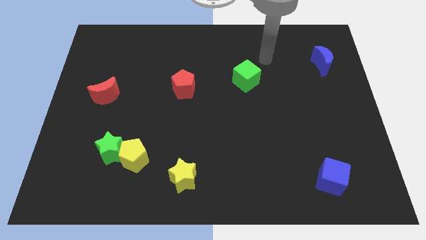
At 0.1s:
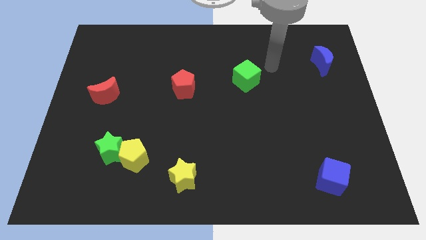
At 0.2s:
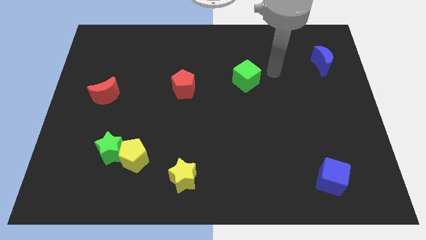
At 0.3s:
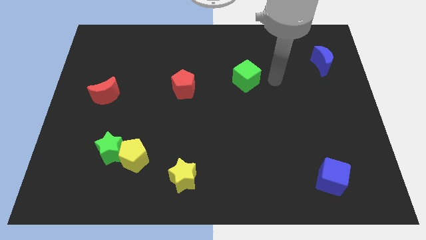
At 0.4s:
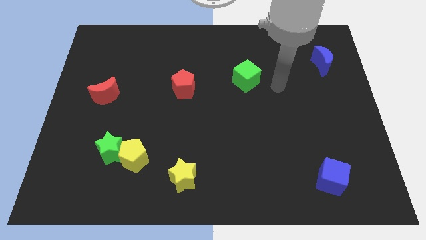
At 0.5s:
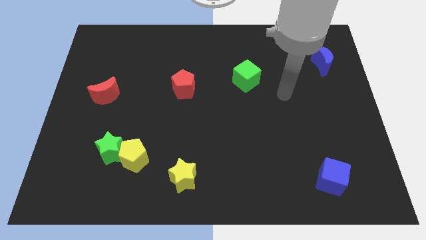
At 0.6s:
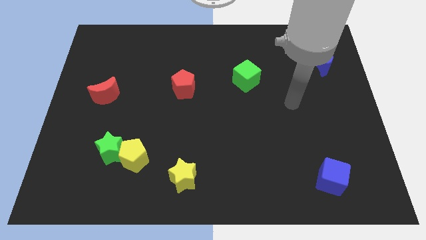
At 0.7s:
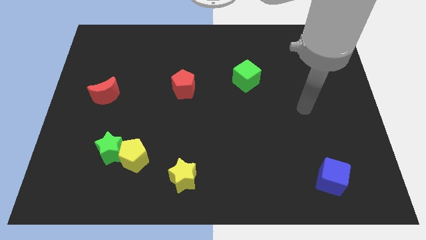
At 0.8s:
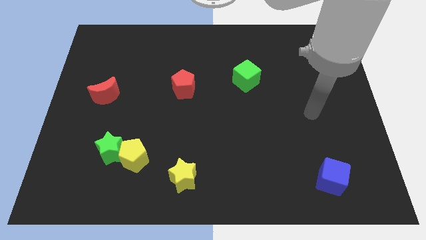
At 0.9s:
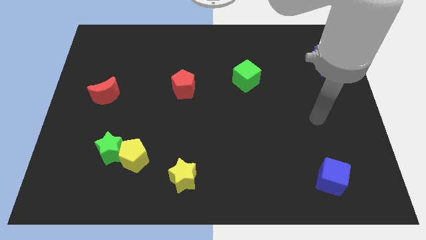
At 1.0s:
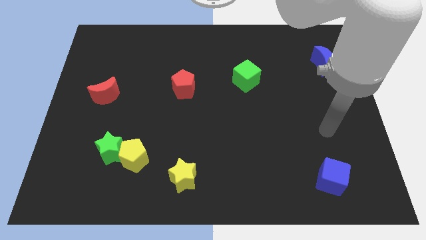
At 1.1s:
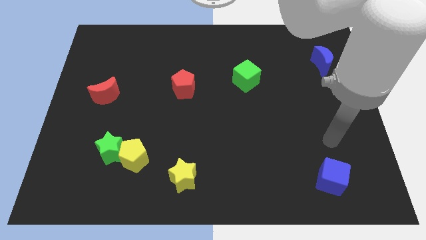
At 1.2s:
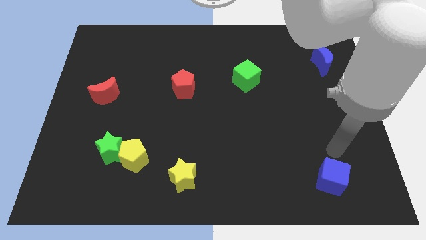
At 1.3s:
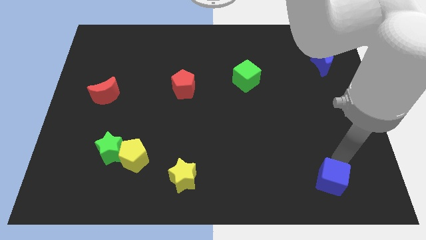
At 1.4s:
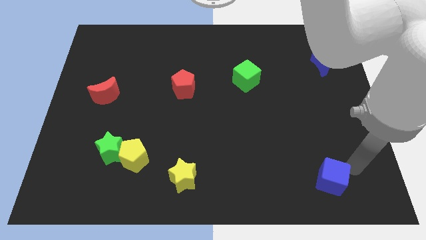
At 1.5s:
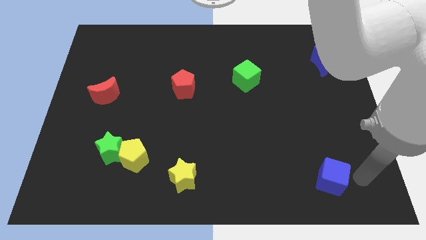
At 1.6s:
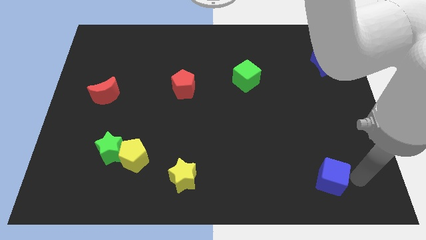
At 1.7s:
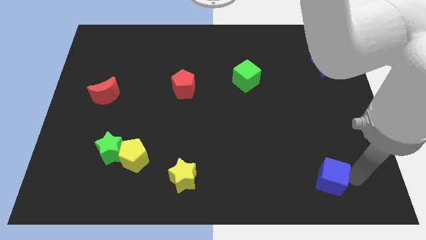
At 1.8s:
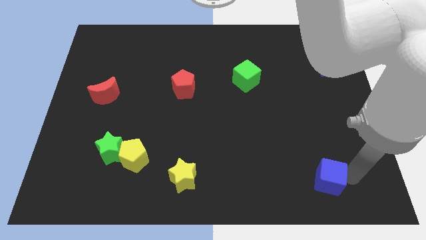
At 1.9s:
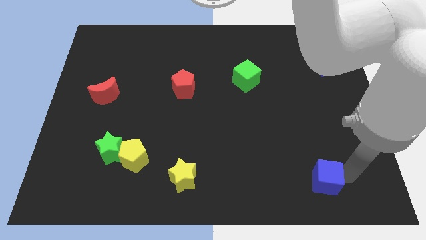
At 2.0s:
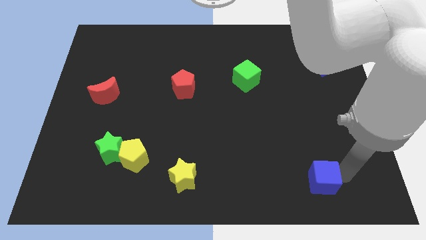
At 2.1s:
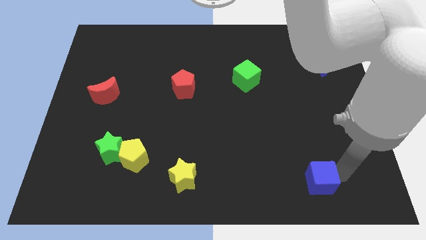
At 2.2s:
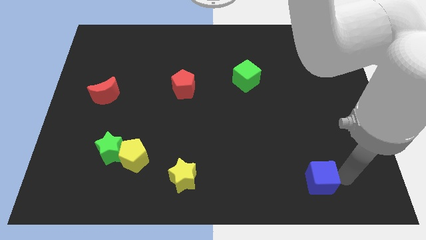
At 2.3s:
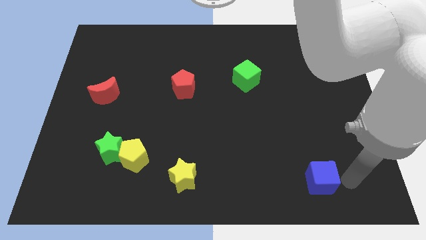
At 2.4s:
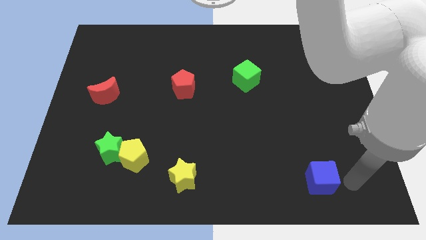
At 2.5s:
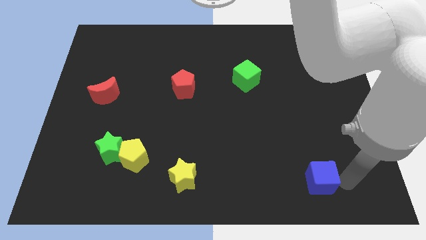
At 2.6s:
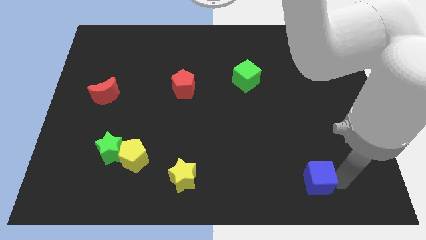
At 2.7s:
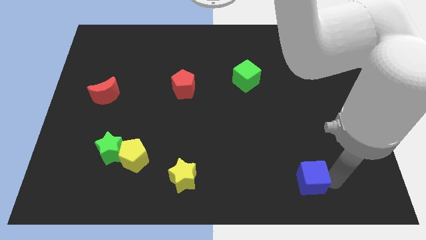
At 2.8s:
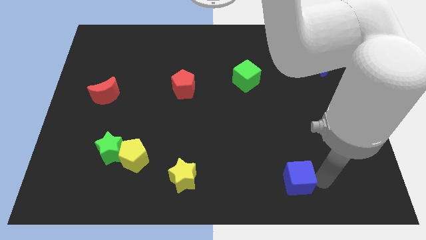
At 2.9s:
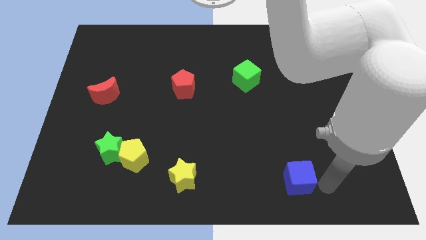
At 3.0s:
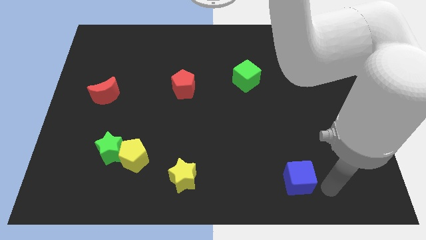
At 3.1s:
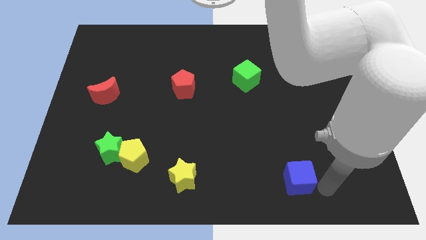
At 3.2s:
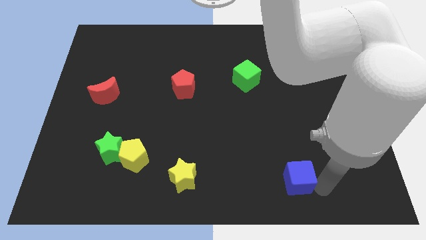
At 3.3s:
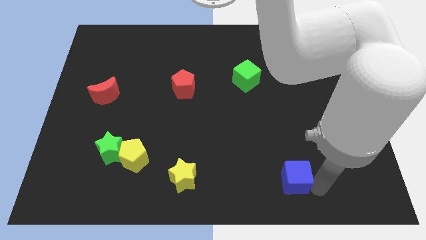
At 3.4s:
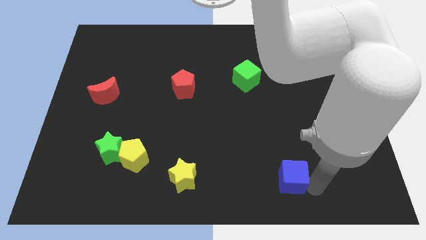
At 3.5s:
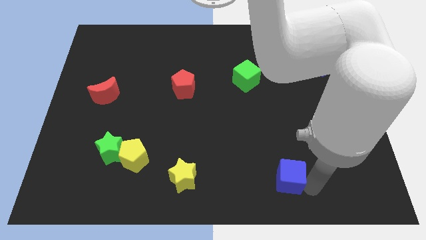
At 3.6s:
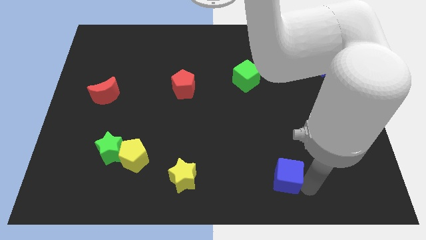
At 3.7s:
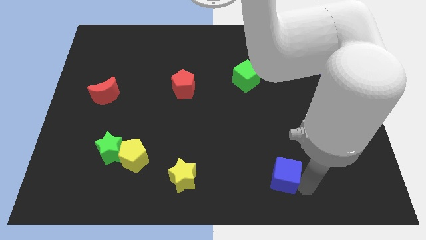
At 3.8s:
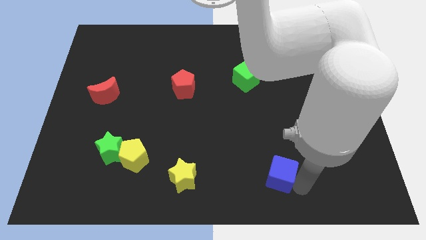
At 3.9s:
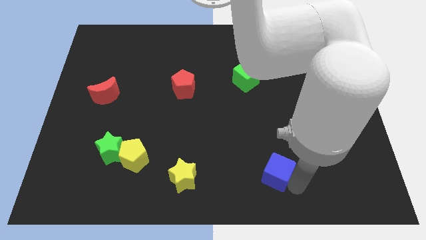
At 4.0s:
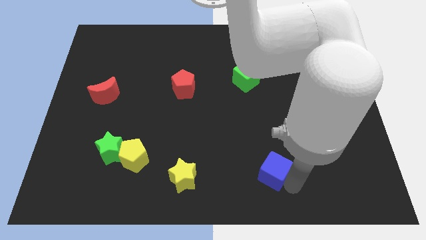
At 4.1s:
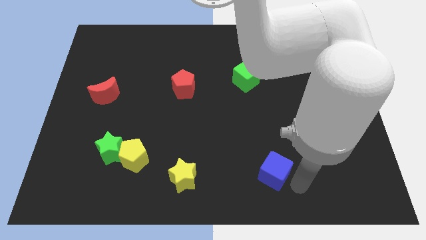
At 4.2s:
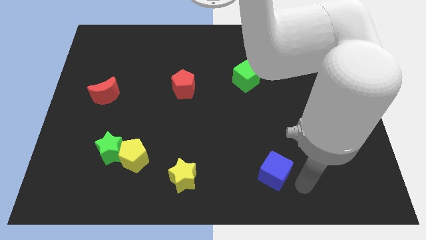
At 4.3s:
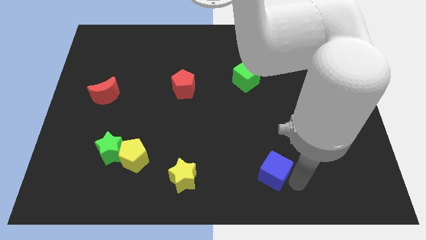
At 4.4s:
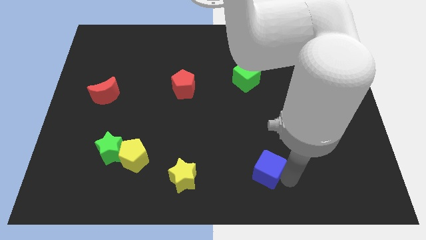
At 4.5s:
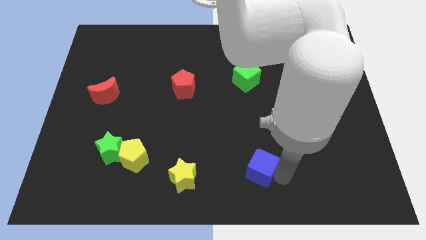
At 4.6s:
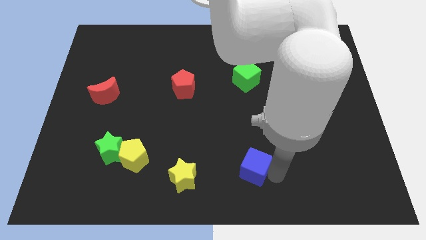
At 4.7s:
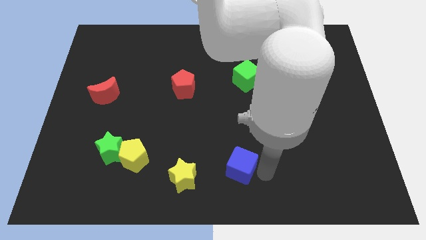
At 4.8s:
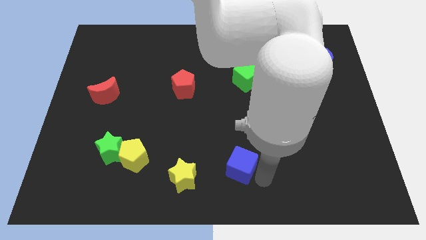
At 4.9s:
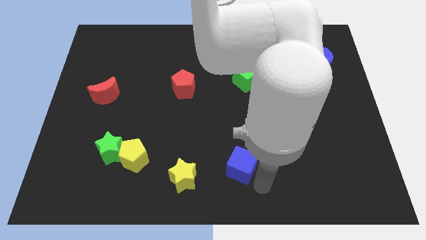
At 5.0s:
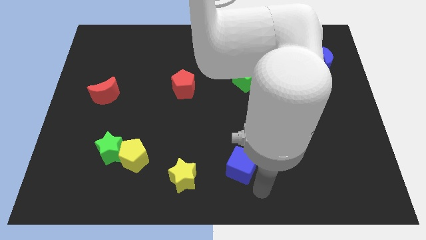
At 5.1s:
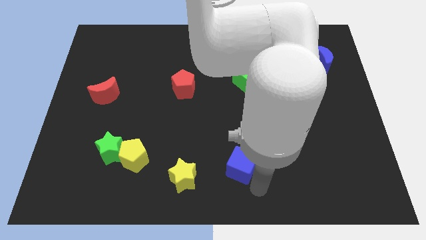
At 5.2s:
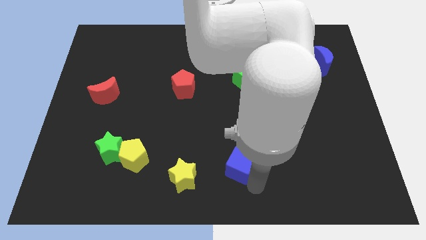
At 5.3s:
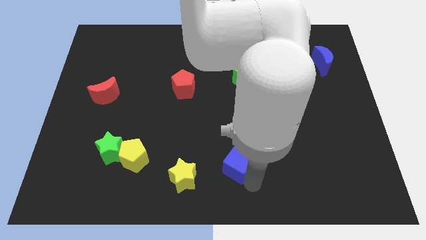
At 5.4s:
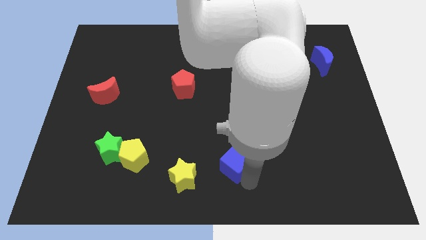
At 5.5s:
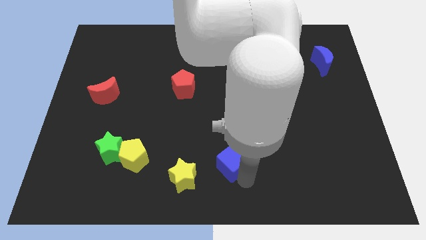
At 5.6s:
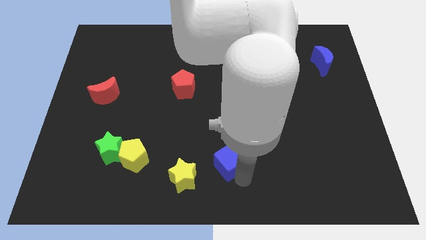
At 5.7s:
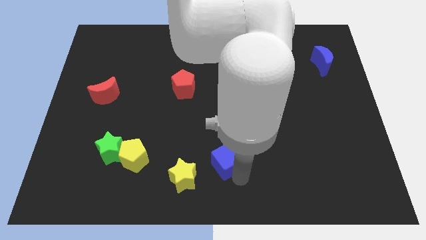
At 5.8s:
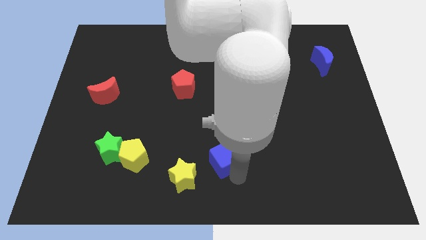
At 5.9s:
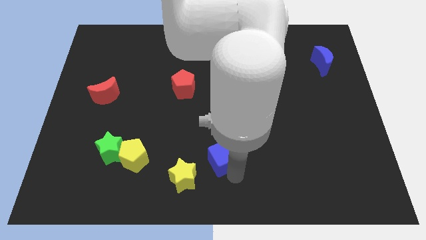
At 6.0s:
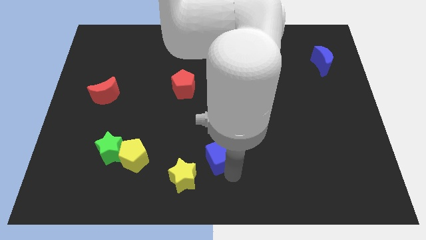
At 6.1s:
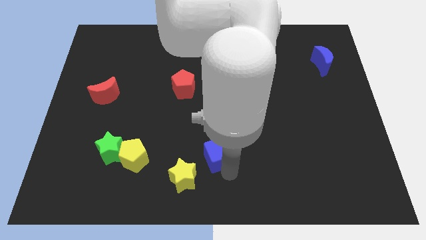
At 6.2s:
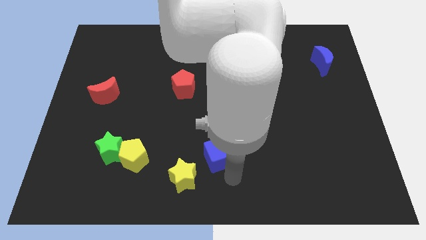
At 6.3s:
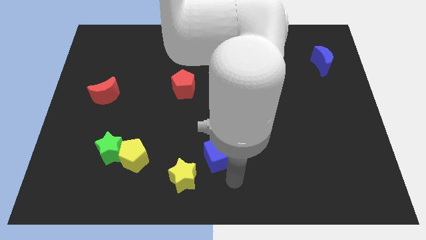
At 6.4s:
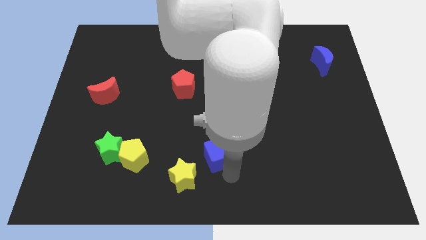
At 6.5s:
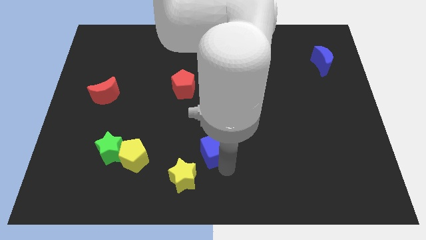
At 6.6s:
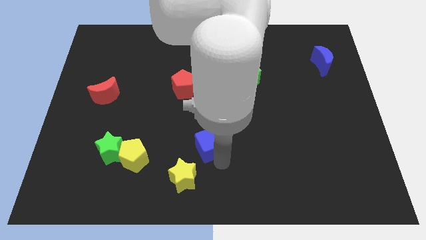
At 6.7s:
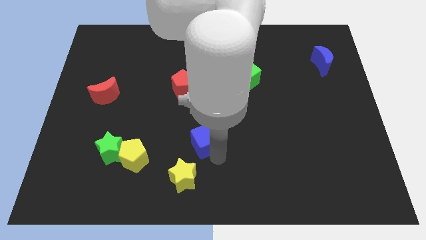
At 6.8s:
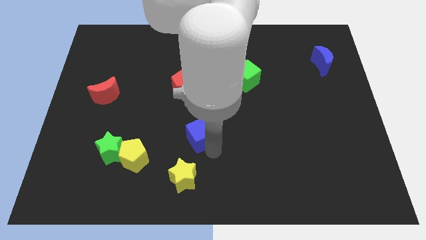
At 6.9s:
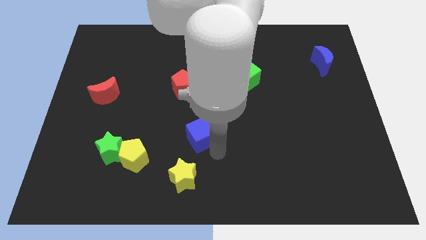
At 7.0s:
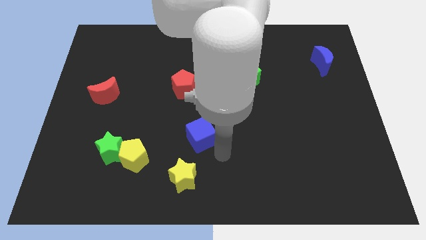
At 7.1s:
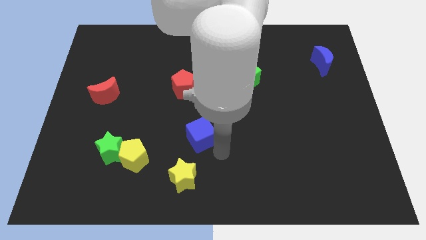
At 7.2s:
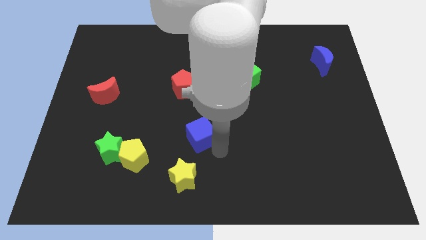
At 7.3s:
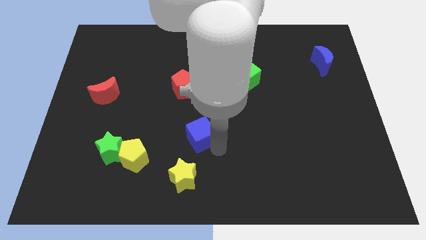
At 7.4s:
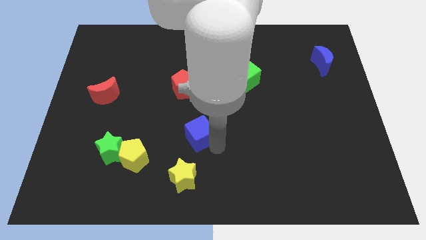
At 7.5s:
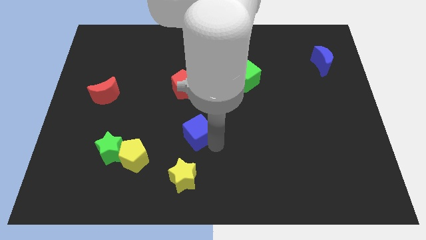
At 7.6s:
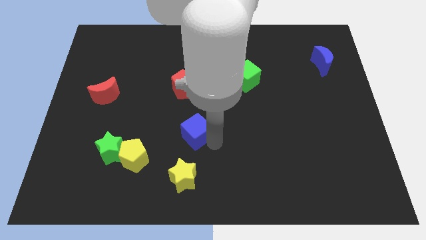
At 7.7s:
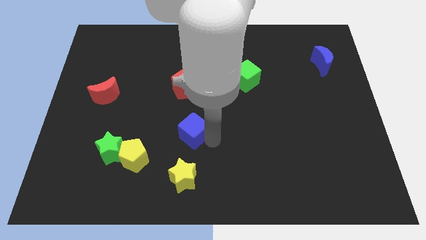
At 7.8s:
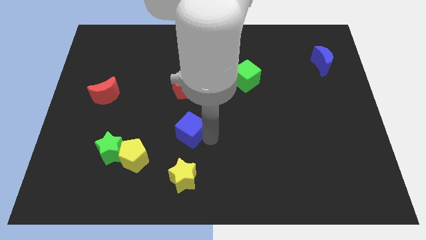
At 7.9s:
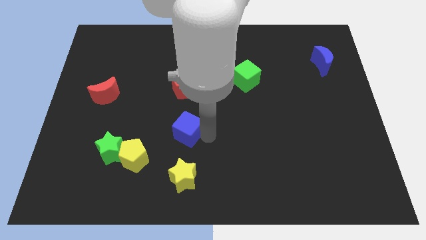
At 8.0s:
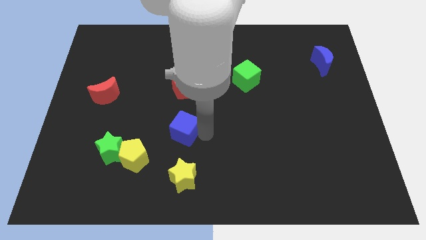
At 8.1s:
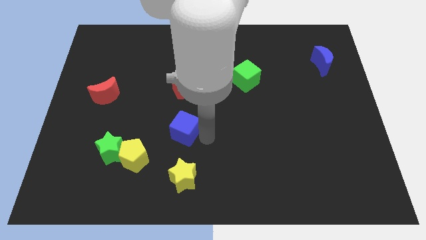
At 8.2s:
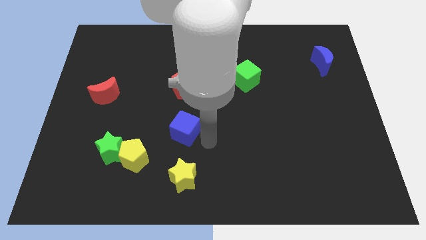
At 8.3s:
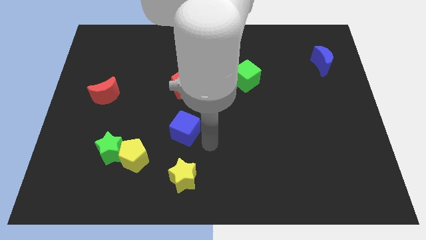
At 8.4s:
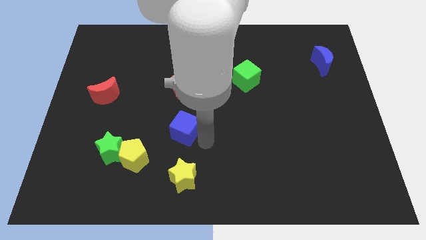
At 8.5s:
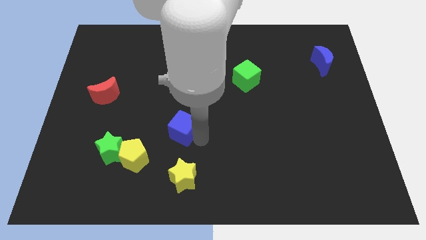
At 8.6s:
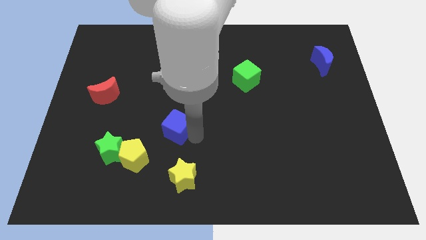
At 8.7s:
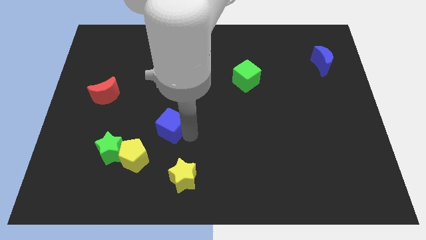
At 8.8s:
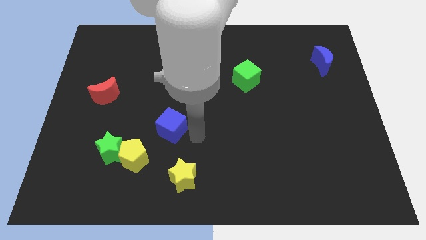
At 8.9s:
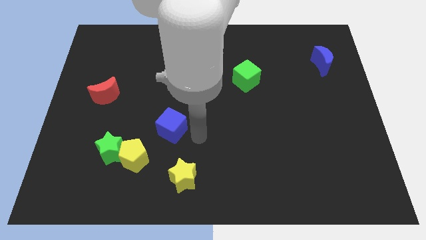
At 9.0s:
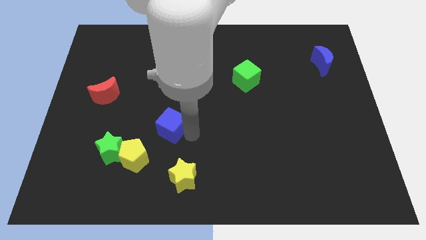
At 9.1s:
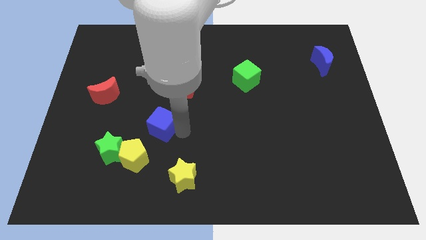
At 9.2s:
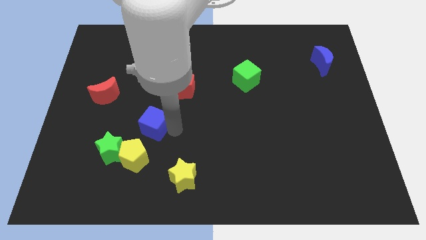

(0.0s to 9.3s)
push the blue cube to the top side of the yellow pentagon
